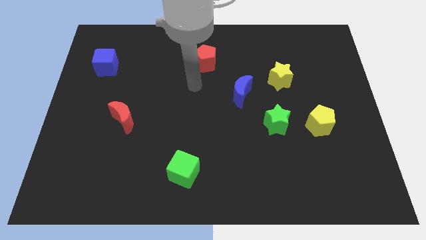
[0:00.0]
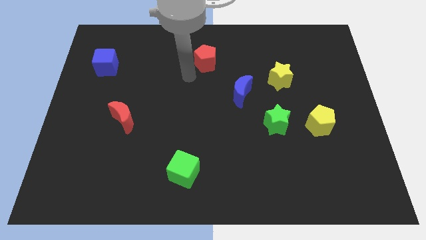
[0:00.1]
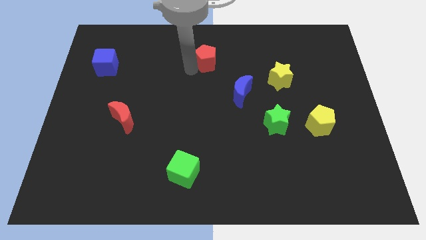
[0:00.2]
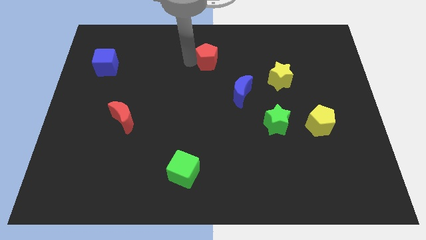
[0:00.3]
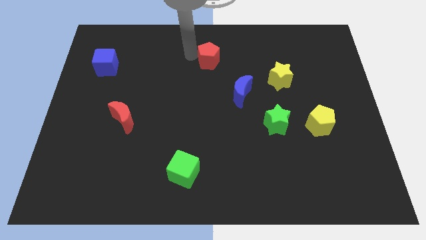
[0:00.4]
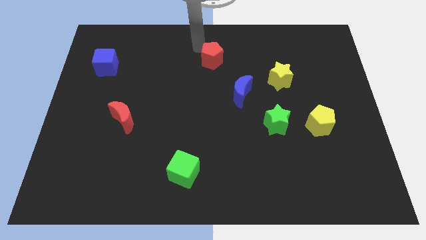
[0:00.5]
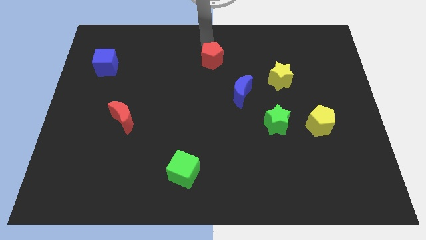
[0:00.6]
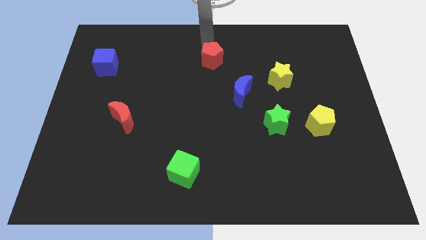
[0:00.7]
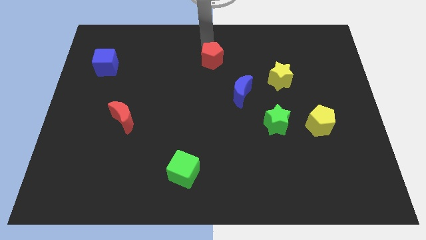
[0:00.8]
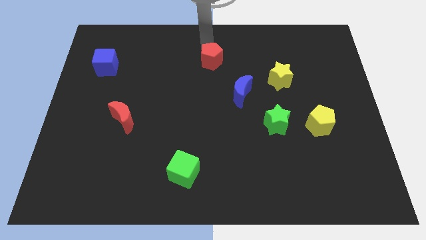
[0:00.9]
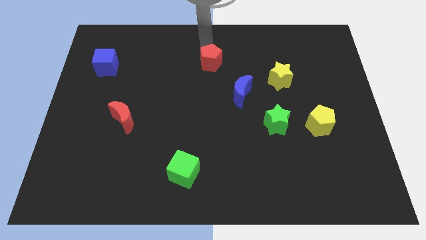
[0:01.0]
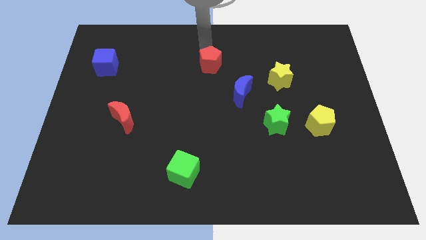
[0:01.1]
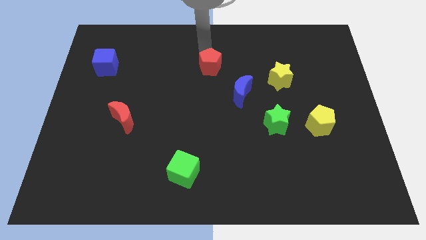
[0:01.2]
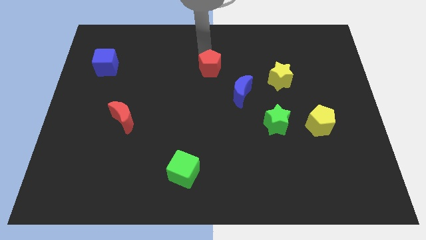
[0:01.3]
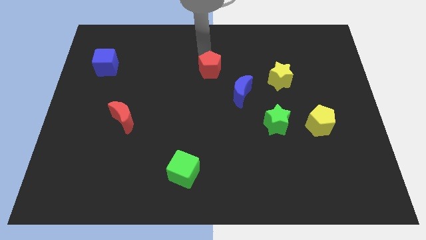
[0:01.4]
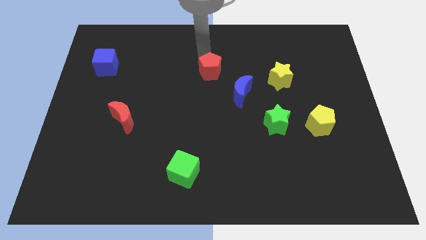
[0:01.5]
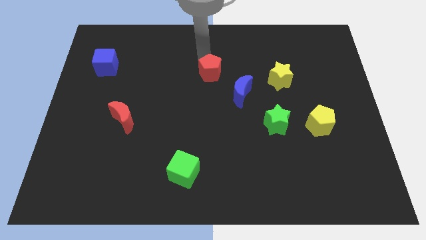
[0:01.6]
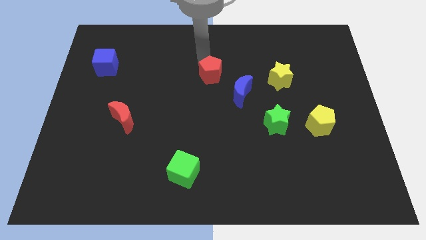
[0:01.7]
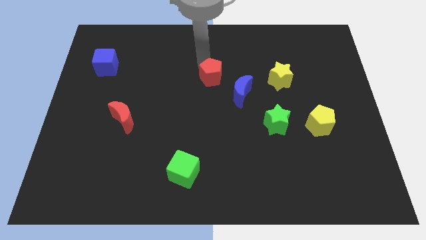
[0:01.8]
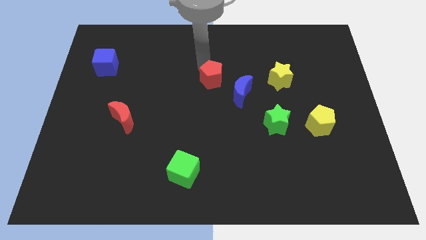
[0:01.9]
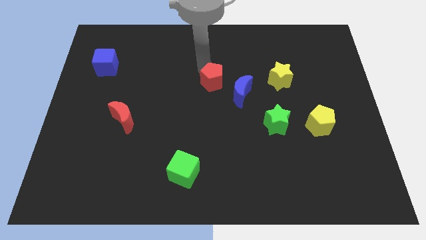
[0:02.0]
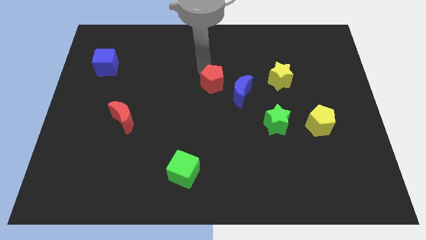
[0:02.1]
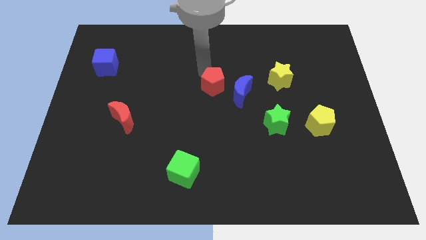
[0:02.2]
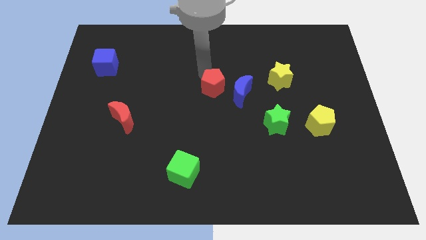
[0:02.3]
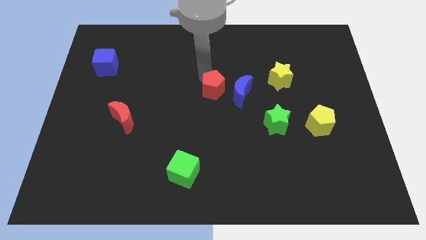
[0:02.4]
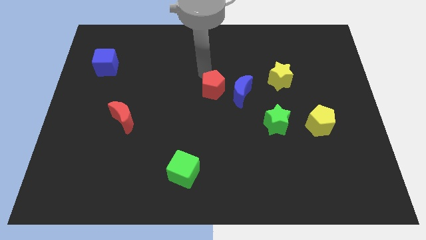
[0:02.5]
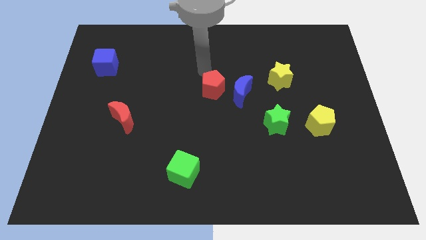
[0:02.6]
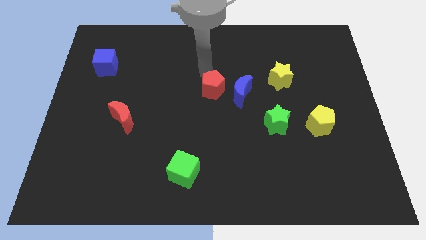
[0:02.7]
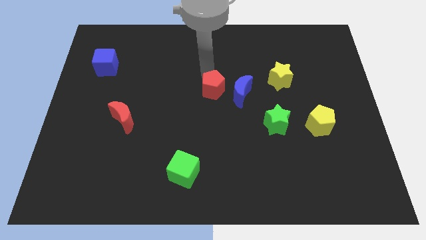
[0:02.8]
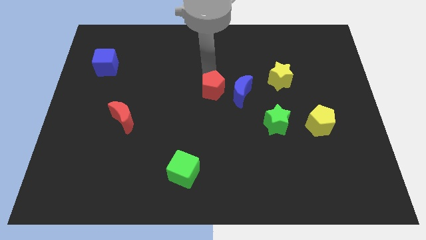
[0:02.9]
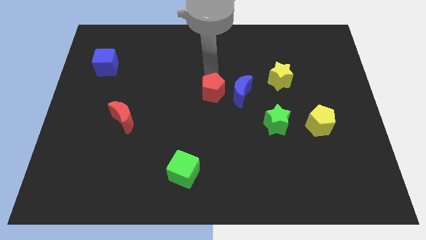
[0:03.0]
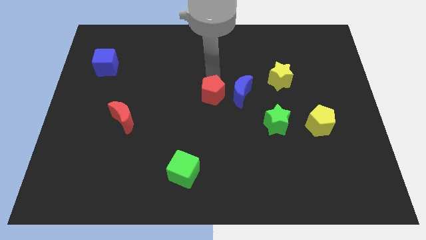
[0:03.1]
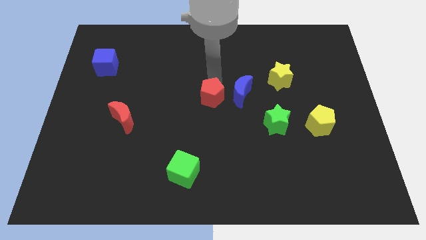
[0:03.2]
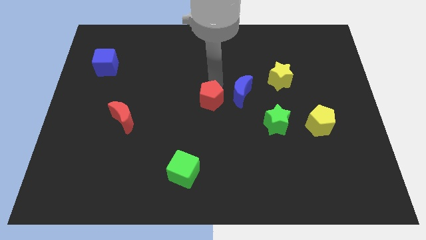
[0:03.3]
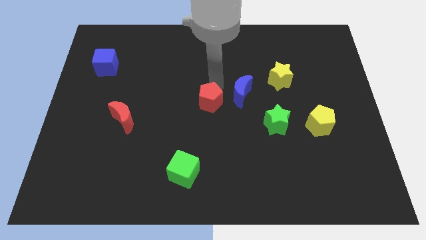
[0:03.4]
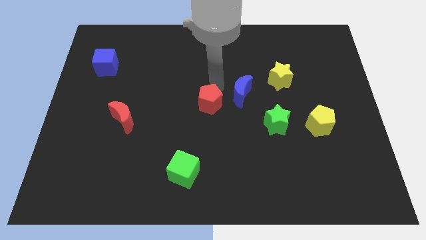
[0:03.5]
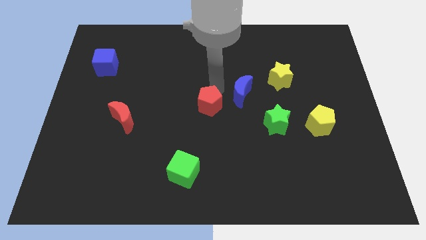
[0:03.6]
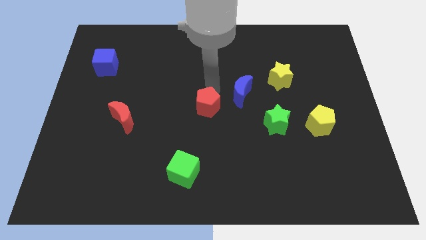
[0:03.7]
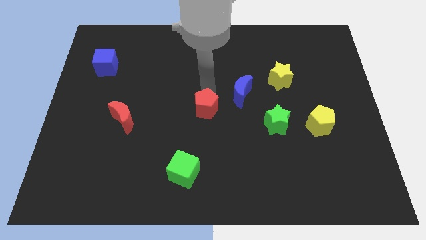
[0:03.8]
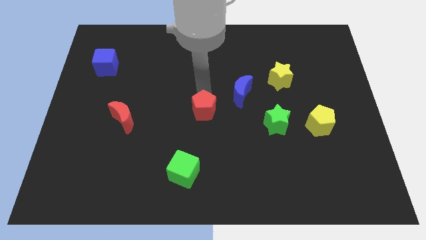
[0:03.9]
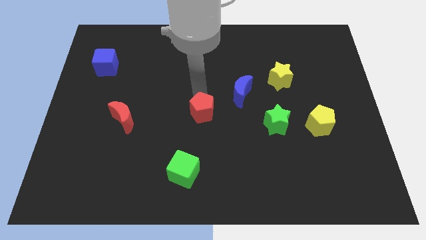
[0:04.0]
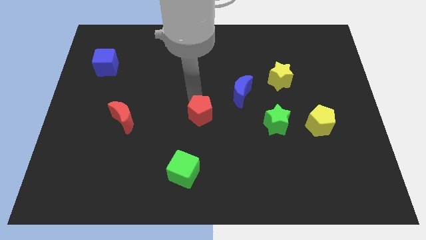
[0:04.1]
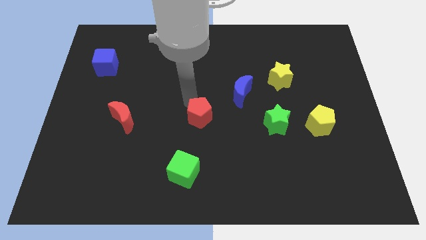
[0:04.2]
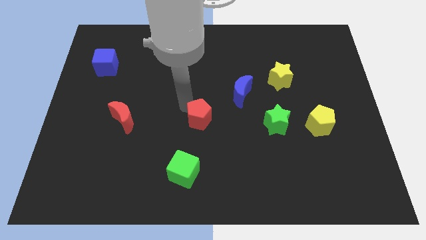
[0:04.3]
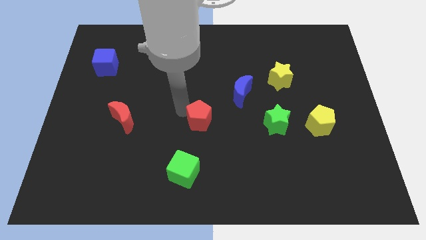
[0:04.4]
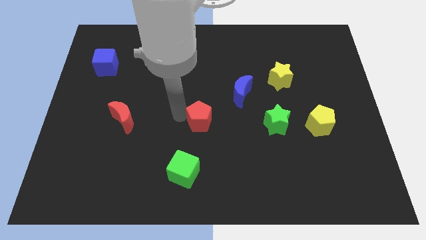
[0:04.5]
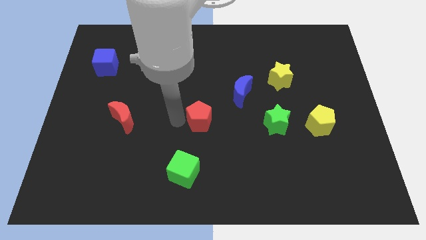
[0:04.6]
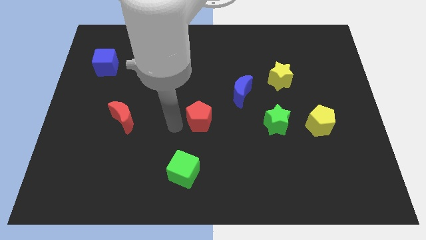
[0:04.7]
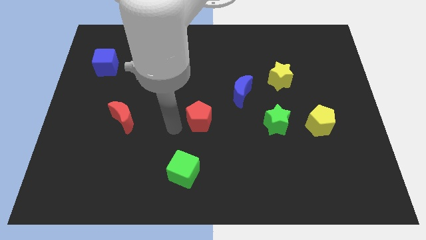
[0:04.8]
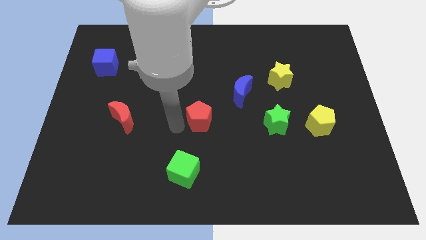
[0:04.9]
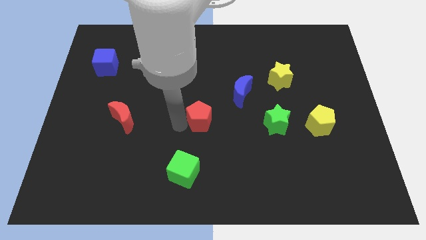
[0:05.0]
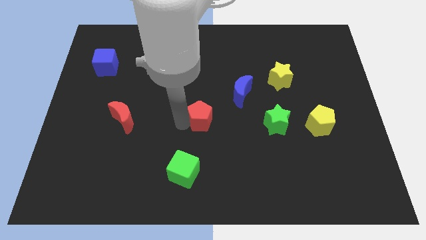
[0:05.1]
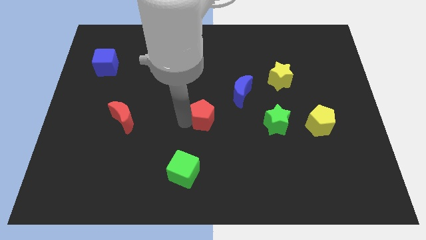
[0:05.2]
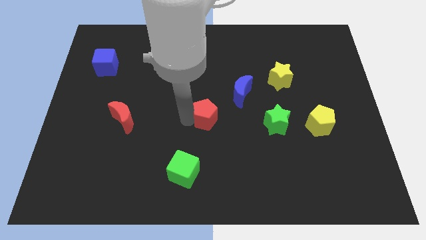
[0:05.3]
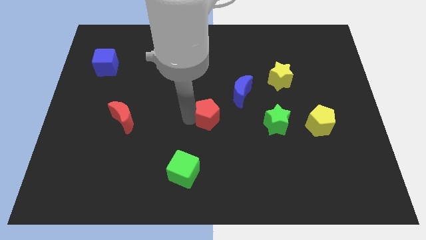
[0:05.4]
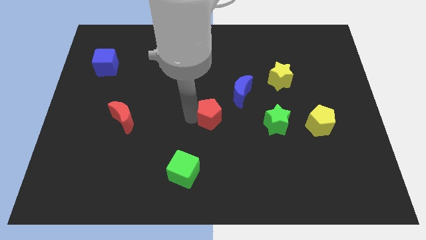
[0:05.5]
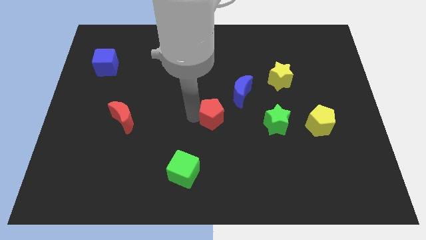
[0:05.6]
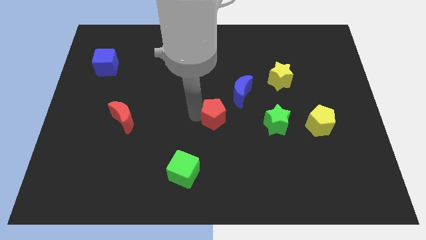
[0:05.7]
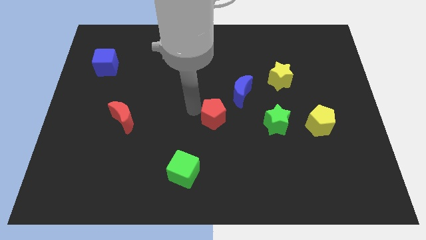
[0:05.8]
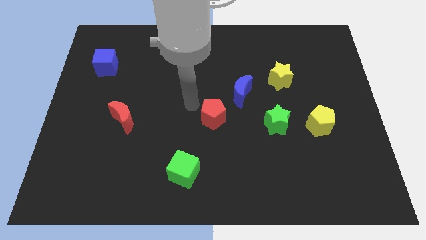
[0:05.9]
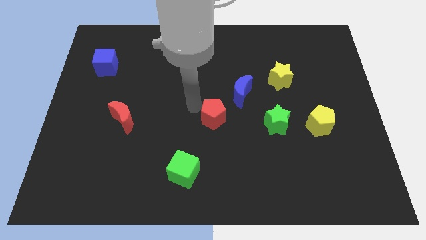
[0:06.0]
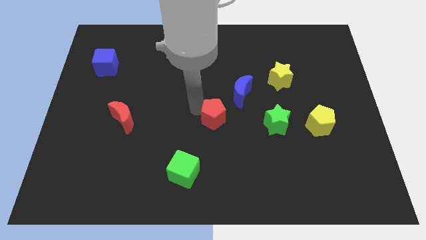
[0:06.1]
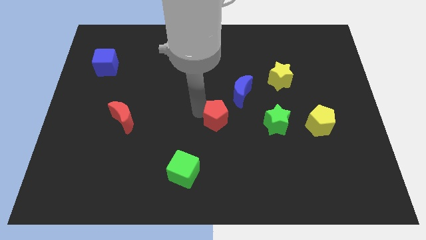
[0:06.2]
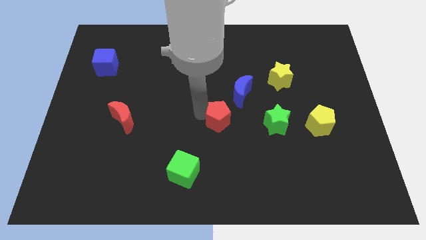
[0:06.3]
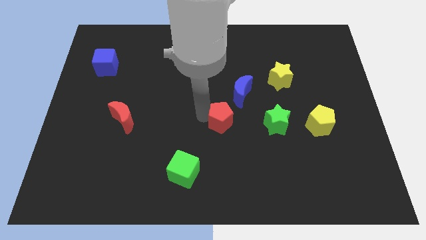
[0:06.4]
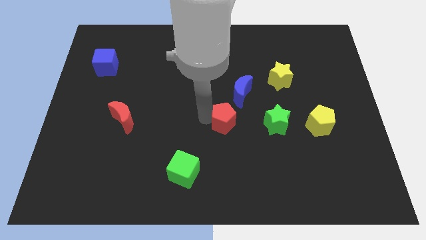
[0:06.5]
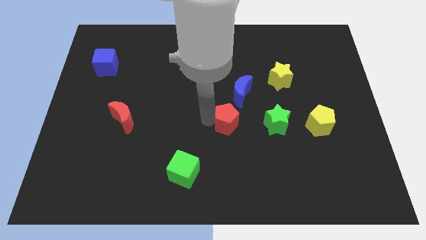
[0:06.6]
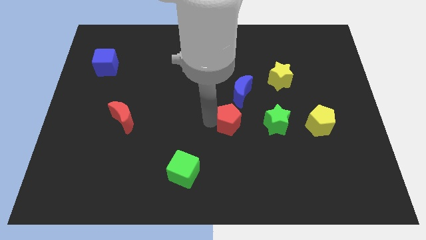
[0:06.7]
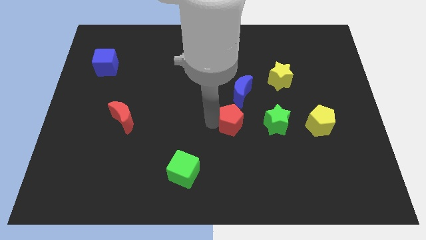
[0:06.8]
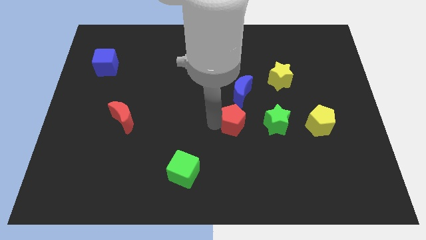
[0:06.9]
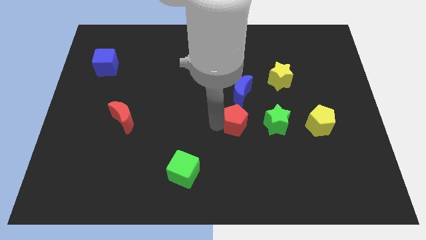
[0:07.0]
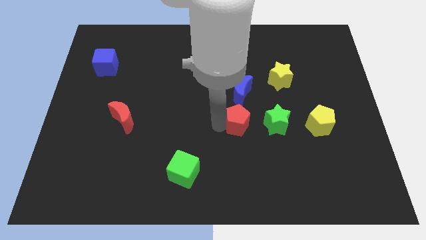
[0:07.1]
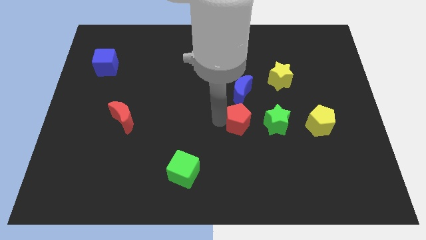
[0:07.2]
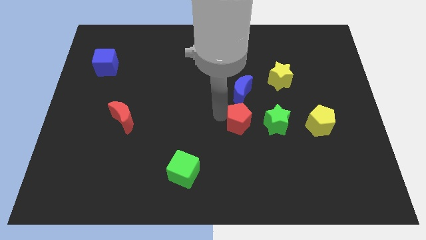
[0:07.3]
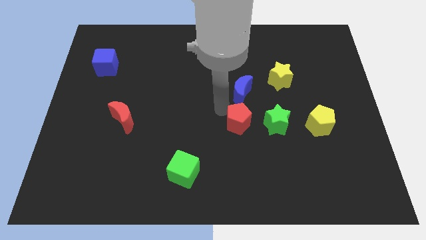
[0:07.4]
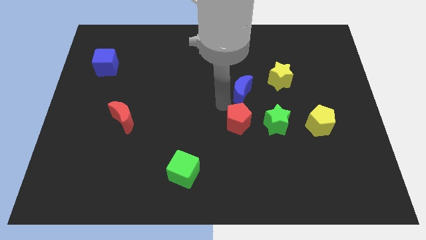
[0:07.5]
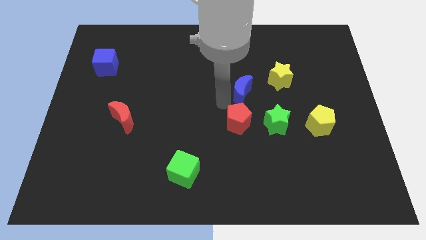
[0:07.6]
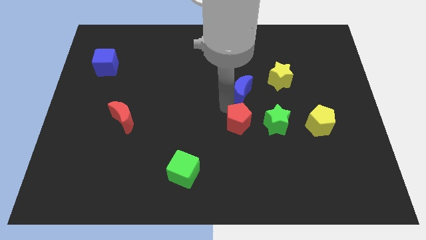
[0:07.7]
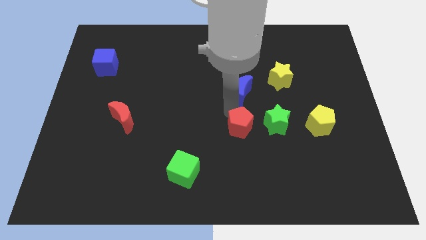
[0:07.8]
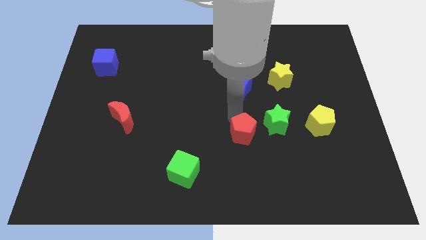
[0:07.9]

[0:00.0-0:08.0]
slide the red pentagon diagonally down and to the left of the green star
